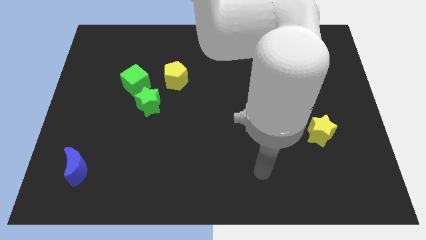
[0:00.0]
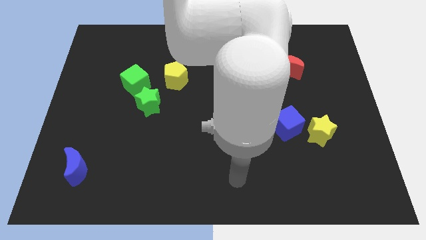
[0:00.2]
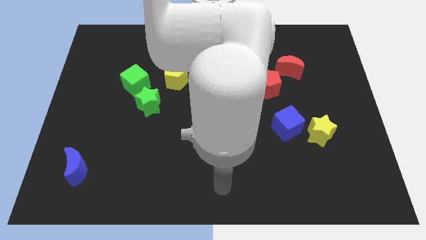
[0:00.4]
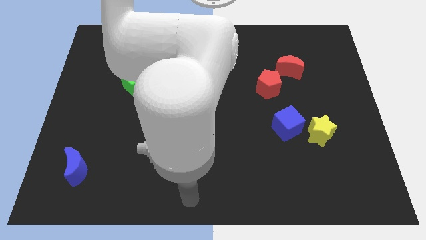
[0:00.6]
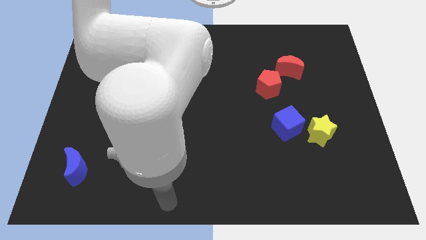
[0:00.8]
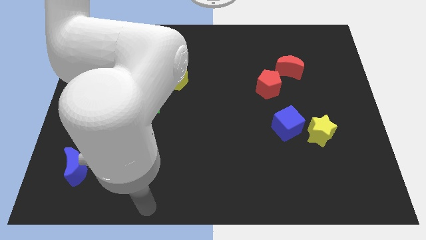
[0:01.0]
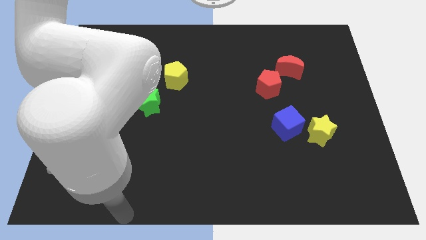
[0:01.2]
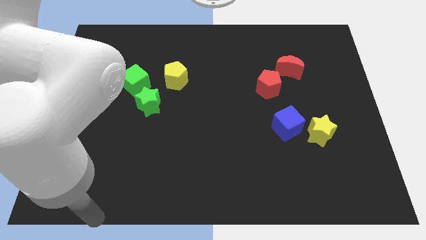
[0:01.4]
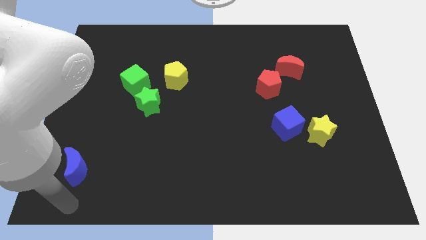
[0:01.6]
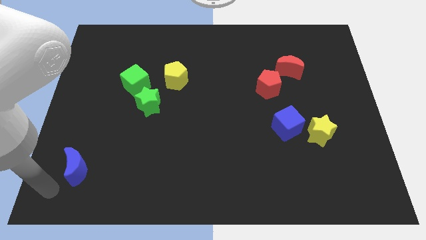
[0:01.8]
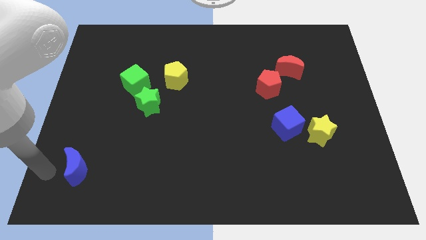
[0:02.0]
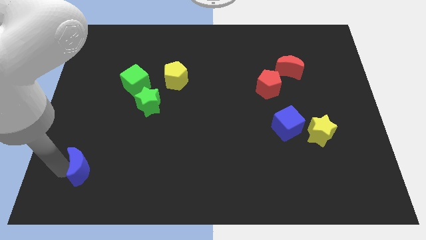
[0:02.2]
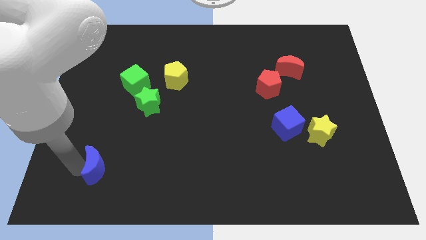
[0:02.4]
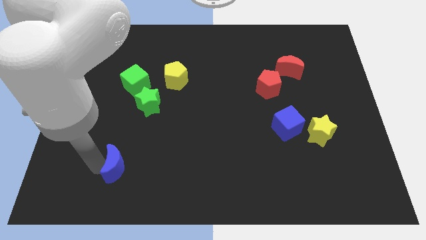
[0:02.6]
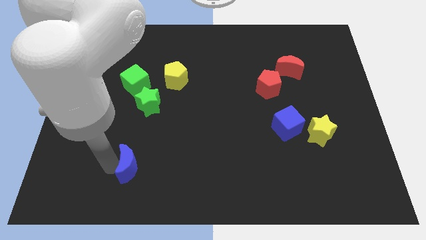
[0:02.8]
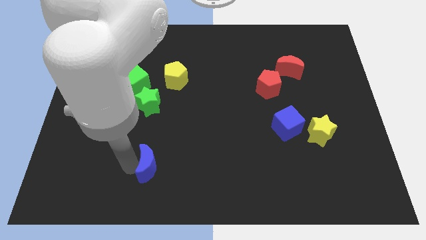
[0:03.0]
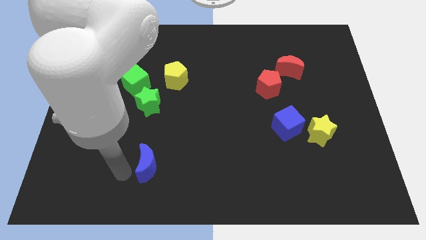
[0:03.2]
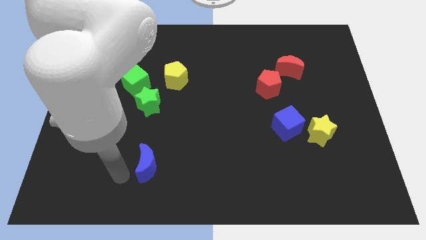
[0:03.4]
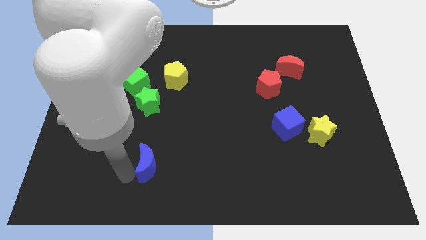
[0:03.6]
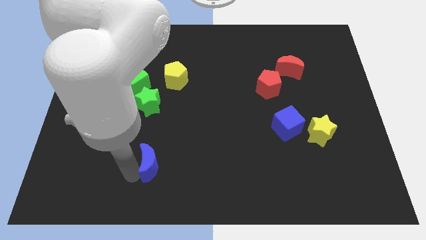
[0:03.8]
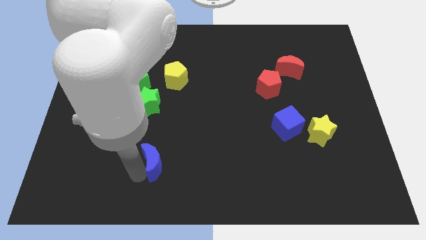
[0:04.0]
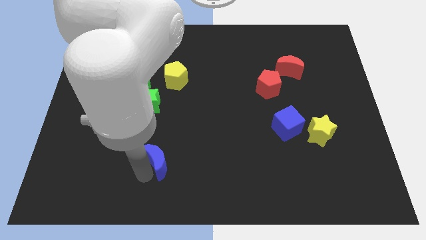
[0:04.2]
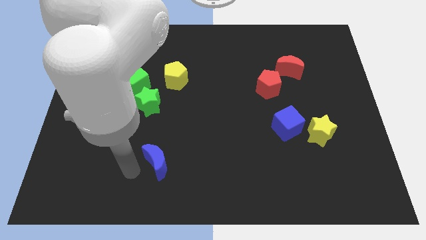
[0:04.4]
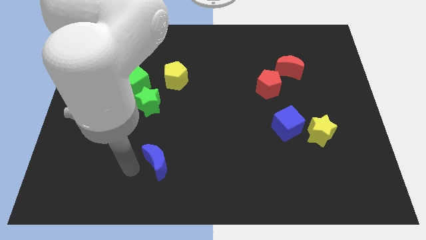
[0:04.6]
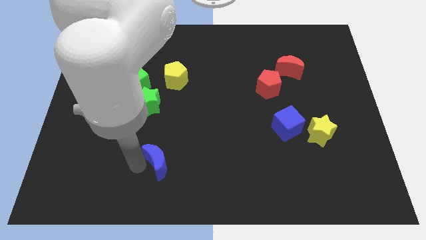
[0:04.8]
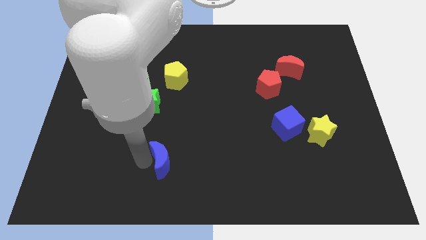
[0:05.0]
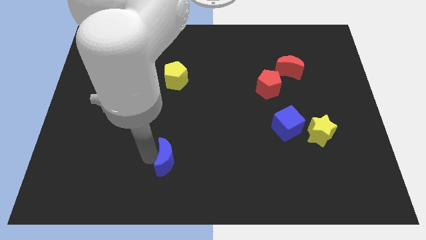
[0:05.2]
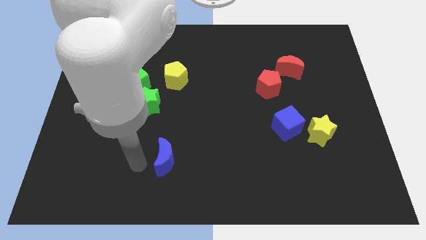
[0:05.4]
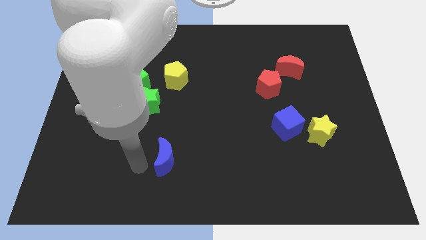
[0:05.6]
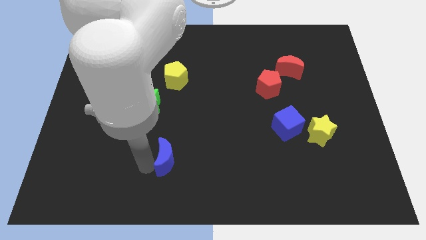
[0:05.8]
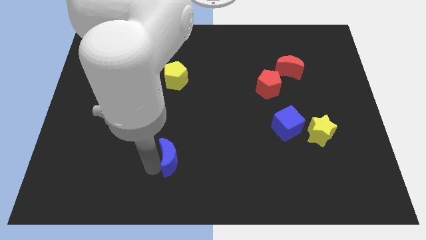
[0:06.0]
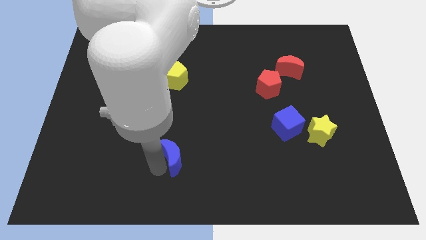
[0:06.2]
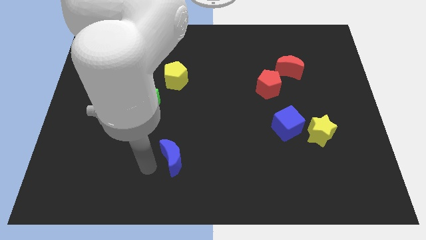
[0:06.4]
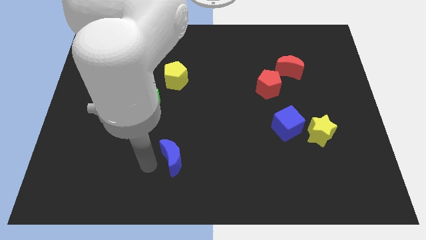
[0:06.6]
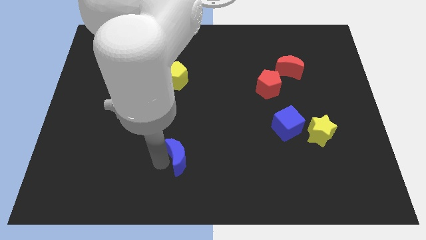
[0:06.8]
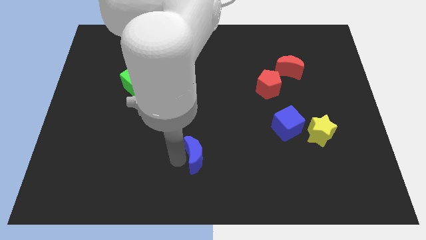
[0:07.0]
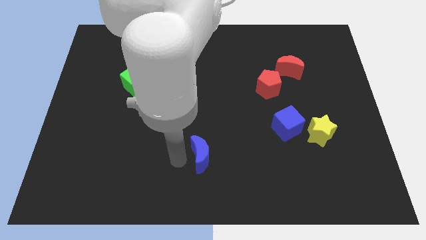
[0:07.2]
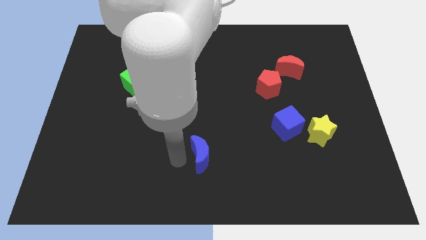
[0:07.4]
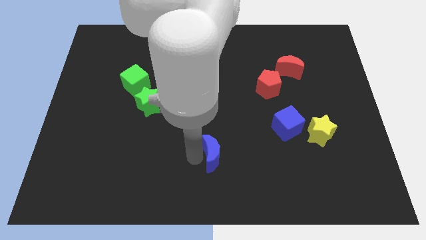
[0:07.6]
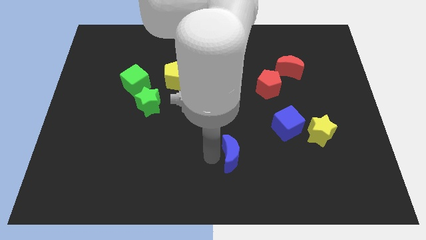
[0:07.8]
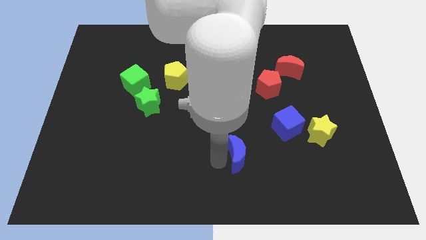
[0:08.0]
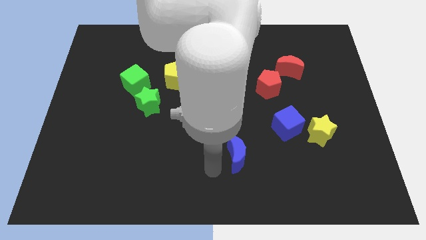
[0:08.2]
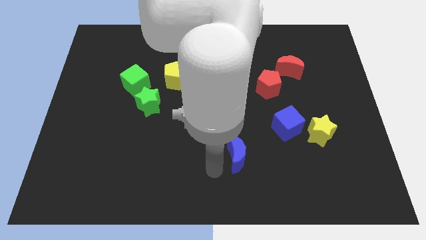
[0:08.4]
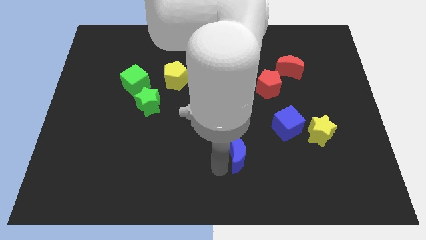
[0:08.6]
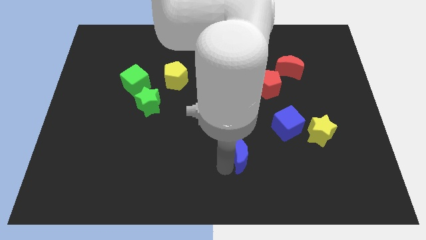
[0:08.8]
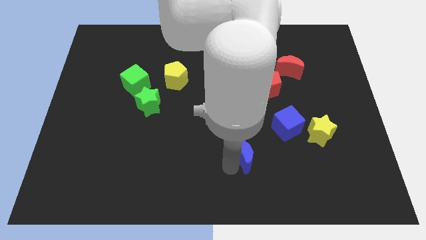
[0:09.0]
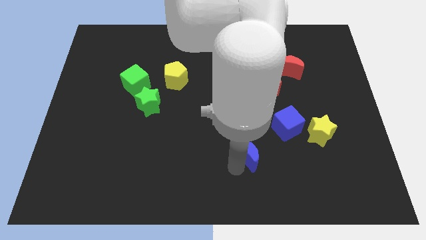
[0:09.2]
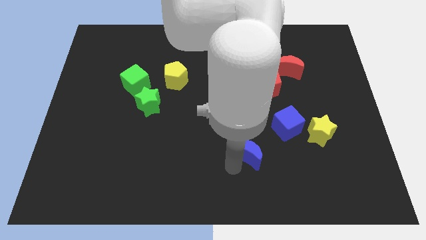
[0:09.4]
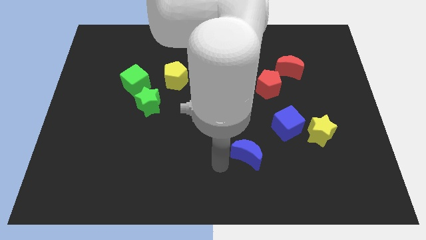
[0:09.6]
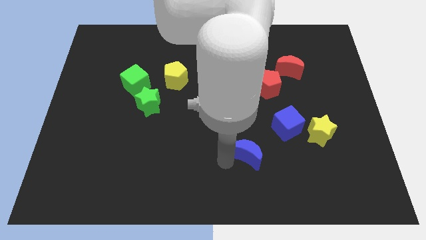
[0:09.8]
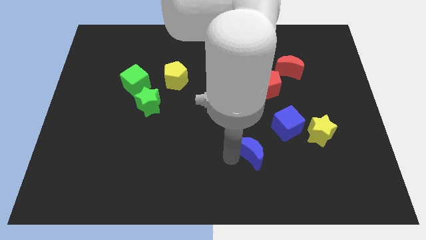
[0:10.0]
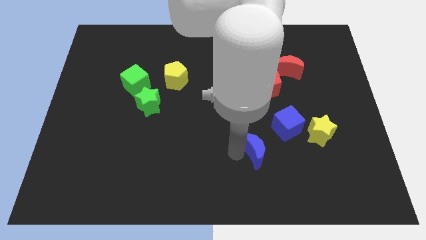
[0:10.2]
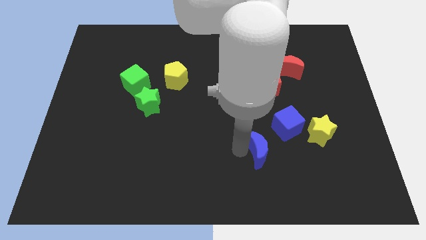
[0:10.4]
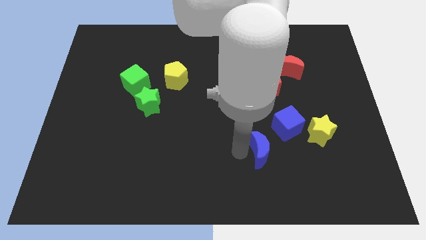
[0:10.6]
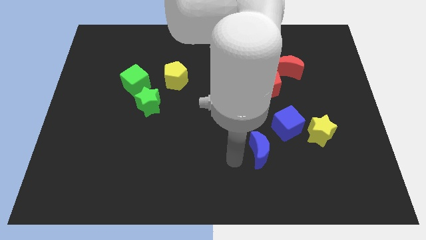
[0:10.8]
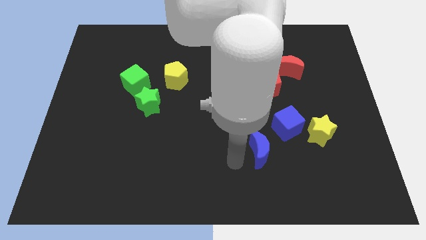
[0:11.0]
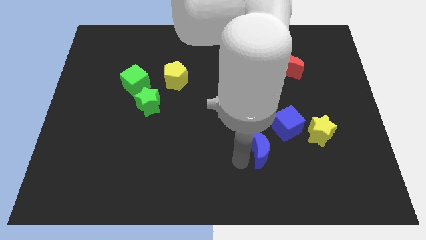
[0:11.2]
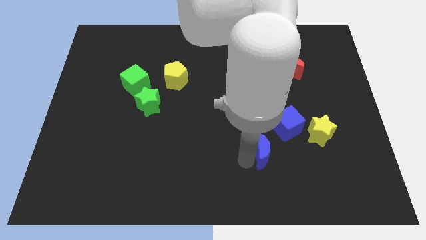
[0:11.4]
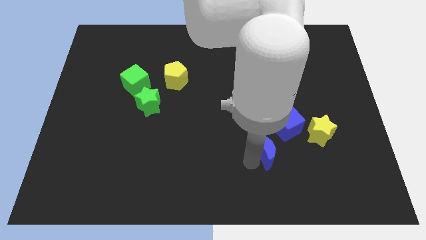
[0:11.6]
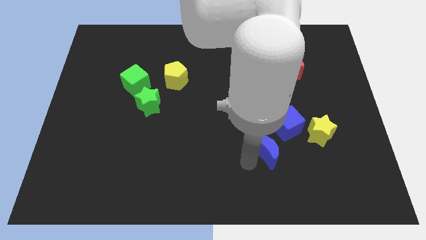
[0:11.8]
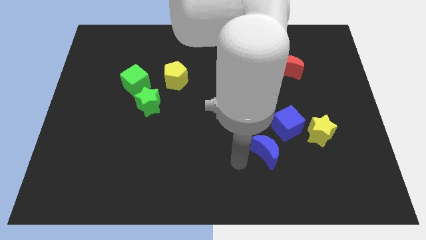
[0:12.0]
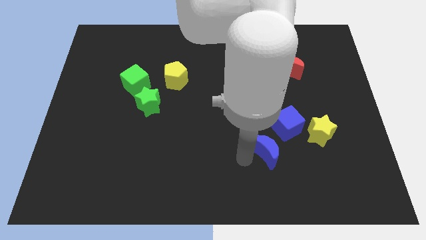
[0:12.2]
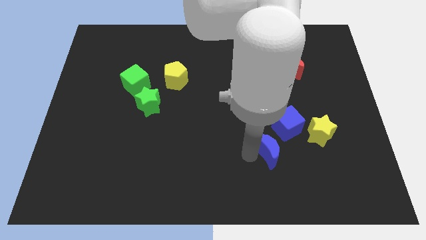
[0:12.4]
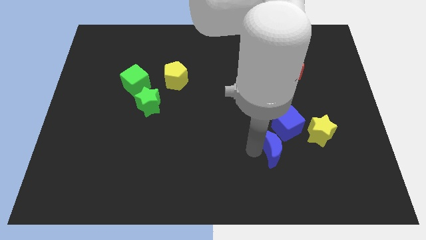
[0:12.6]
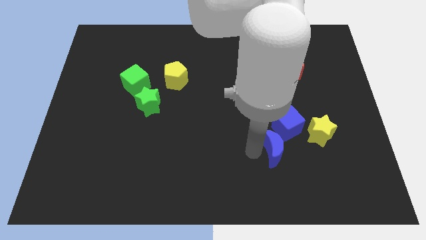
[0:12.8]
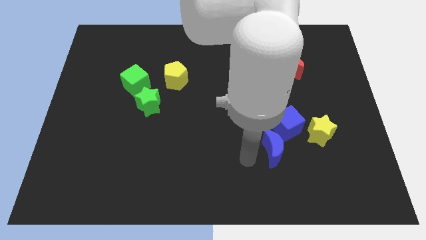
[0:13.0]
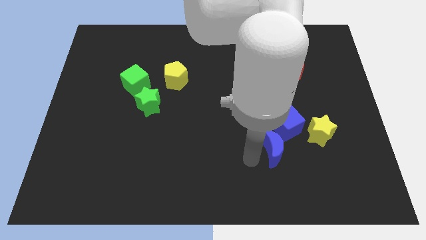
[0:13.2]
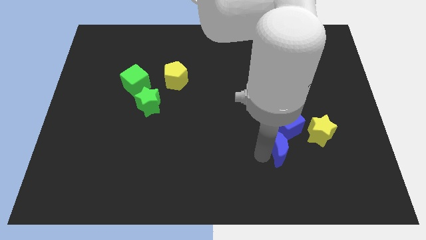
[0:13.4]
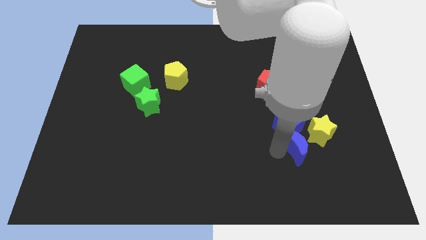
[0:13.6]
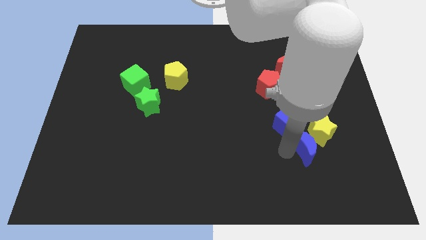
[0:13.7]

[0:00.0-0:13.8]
move the blue moon close to the yellow star
